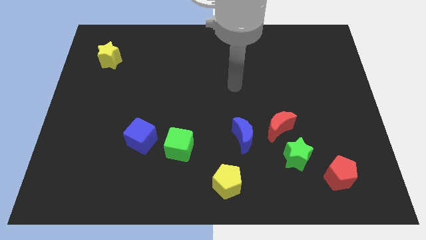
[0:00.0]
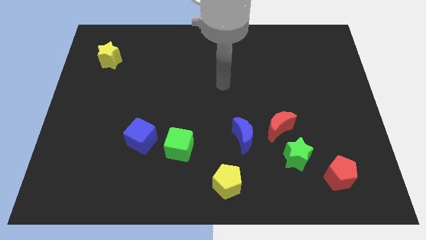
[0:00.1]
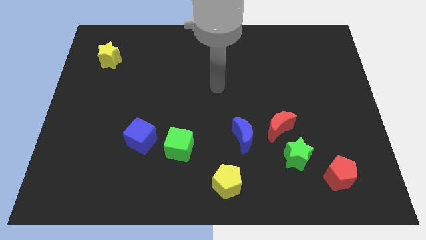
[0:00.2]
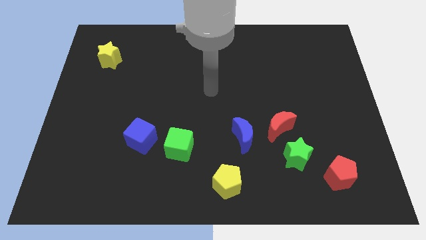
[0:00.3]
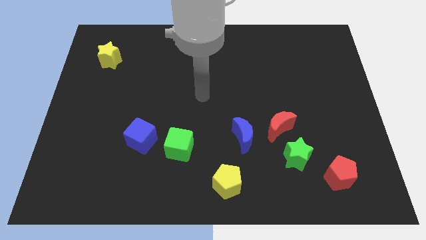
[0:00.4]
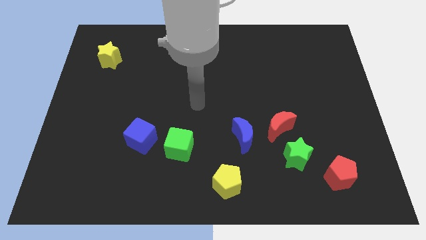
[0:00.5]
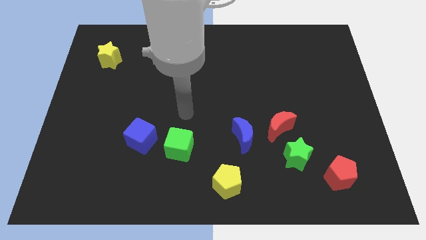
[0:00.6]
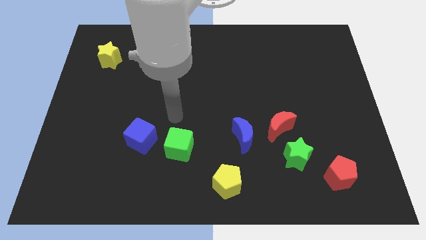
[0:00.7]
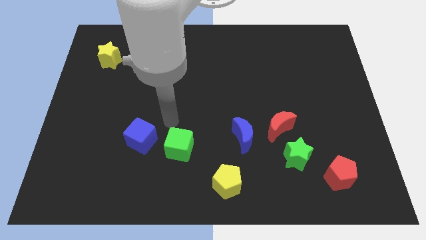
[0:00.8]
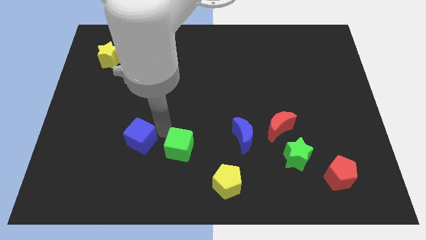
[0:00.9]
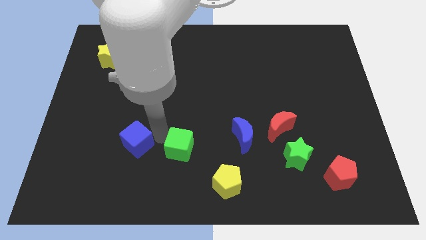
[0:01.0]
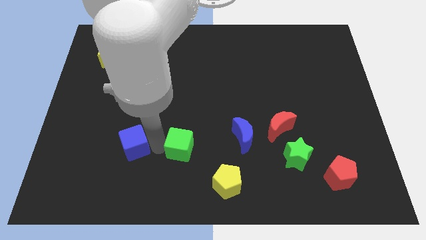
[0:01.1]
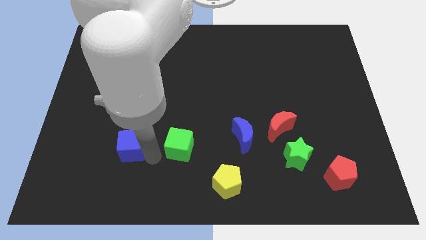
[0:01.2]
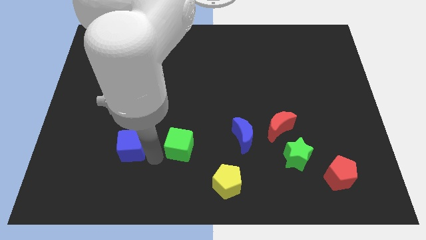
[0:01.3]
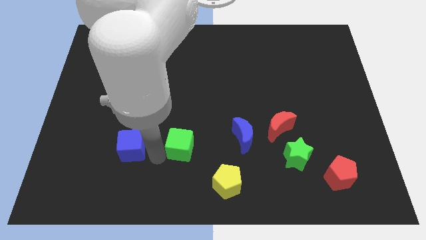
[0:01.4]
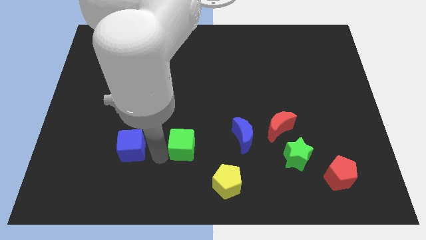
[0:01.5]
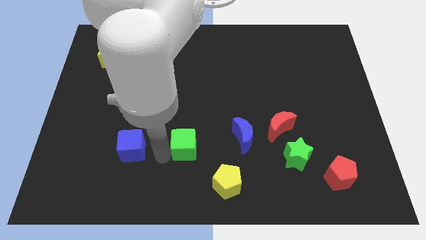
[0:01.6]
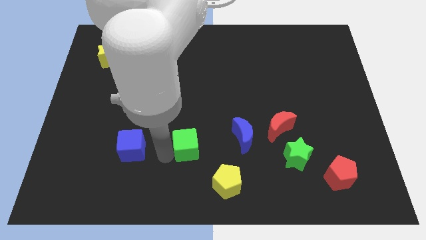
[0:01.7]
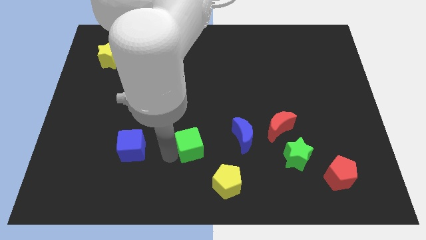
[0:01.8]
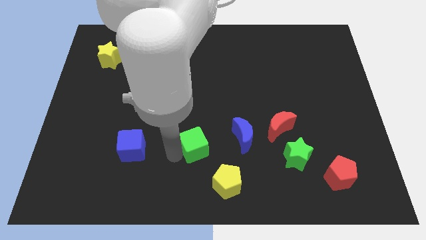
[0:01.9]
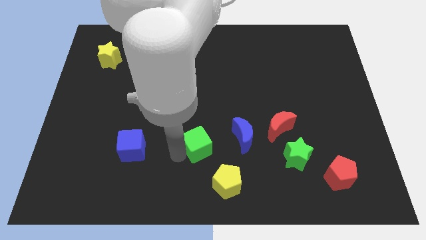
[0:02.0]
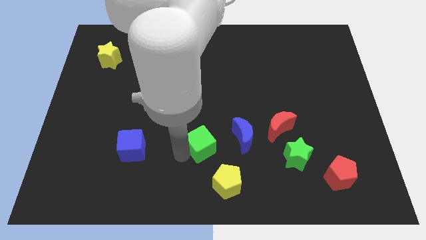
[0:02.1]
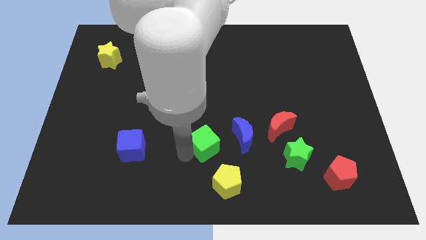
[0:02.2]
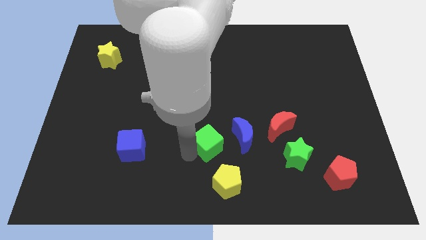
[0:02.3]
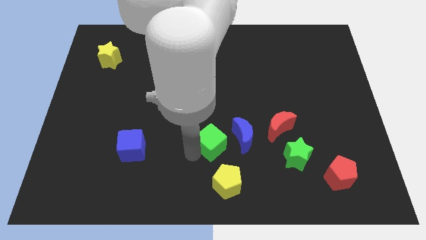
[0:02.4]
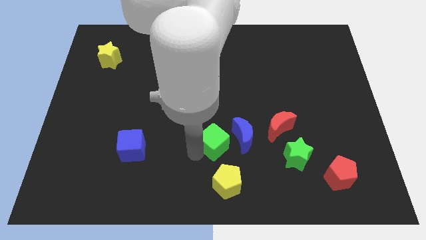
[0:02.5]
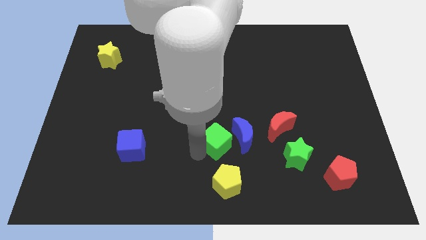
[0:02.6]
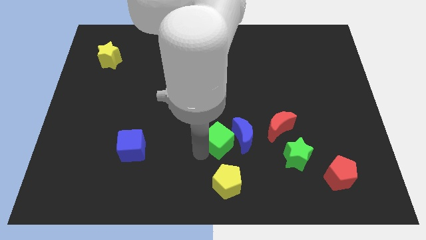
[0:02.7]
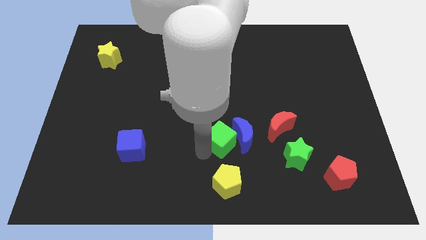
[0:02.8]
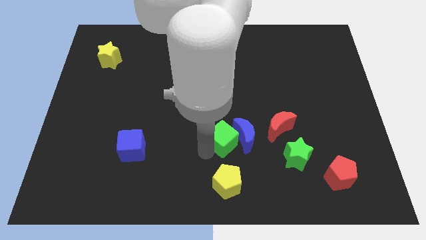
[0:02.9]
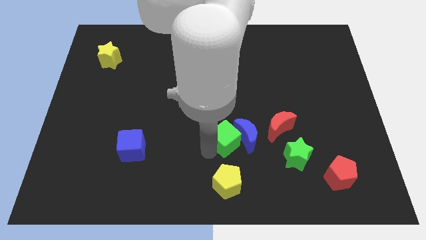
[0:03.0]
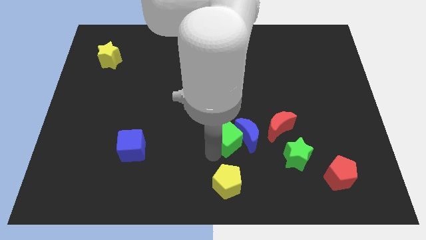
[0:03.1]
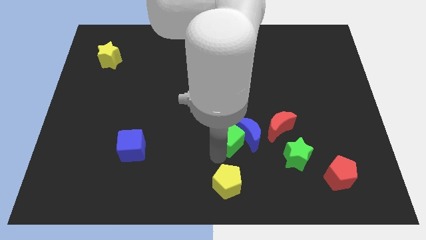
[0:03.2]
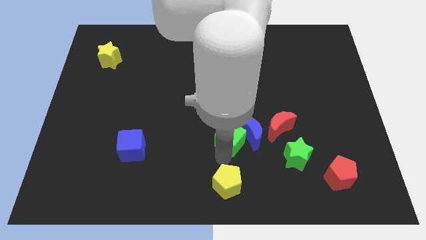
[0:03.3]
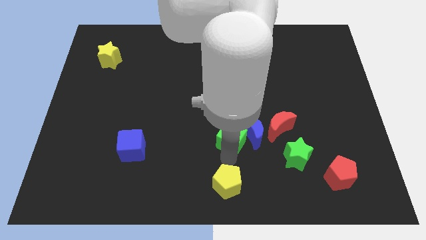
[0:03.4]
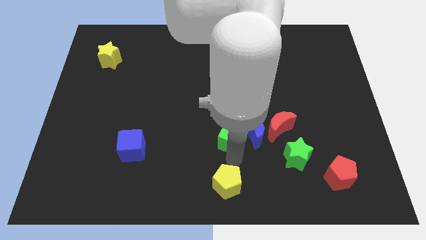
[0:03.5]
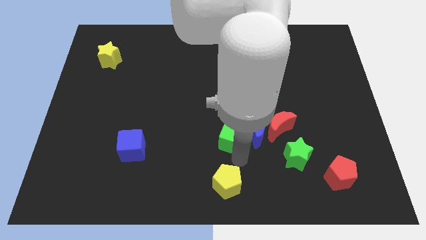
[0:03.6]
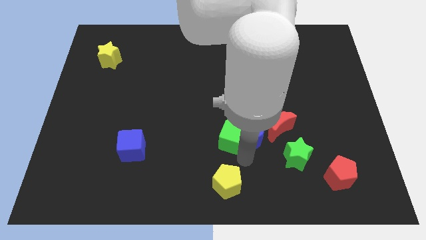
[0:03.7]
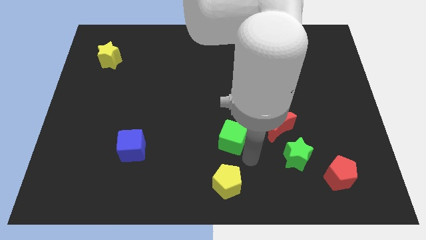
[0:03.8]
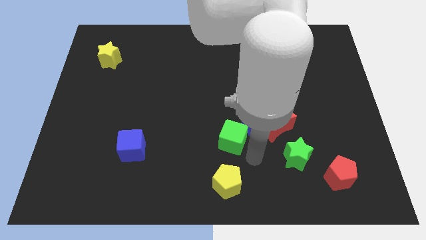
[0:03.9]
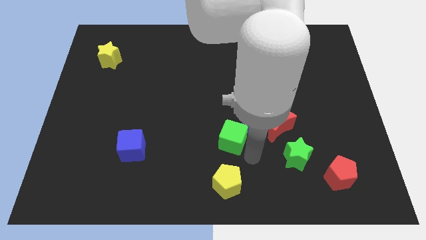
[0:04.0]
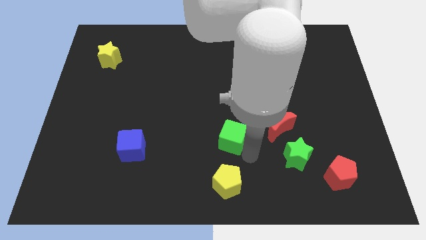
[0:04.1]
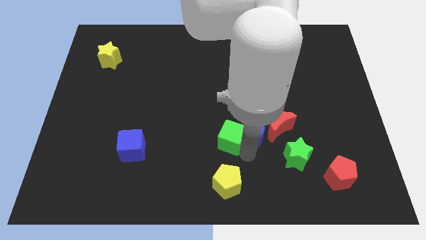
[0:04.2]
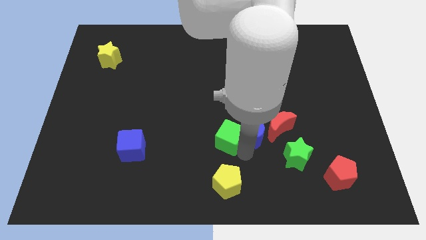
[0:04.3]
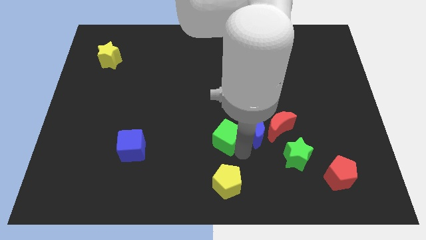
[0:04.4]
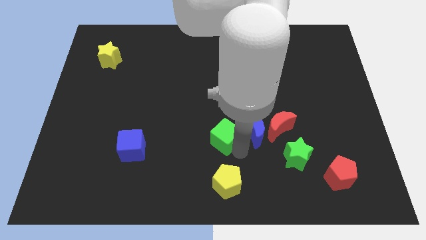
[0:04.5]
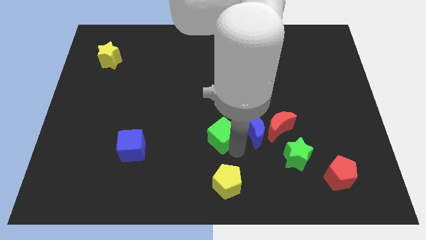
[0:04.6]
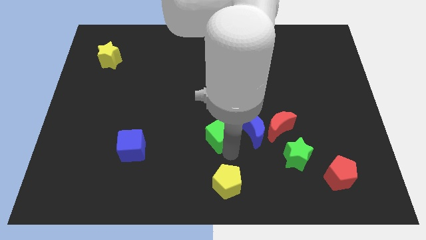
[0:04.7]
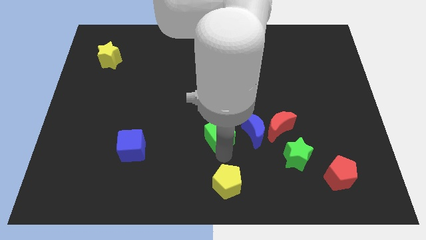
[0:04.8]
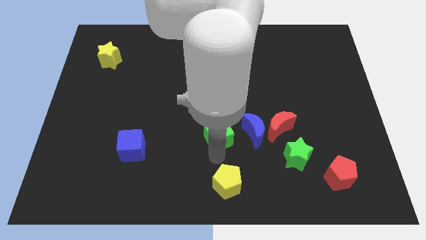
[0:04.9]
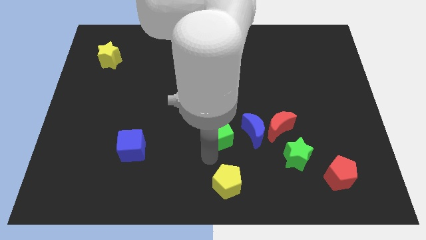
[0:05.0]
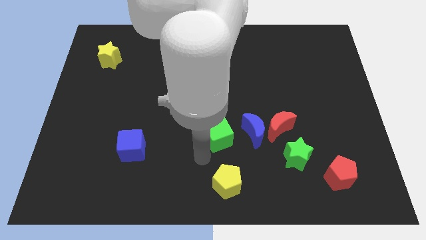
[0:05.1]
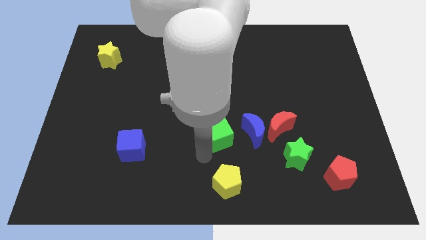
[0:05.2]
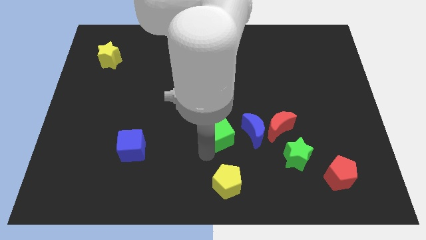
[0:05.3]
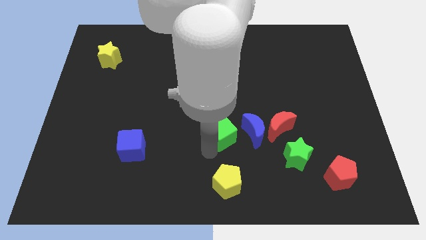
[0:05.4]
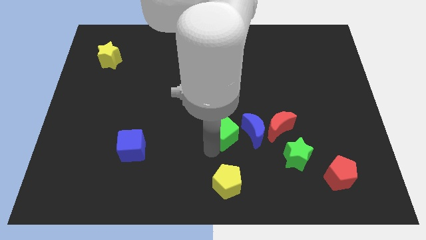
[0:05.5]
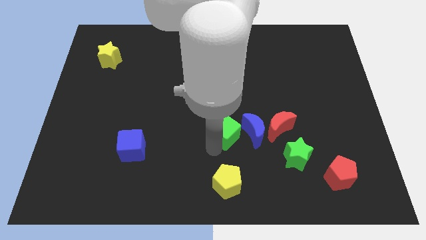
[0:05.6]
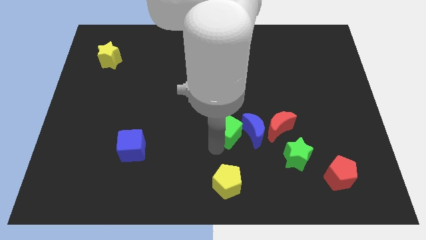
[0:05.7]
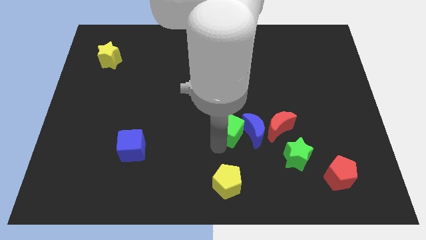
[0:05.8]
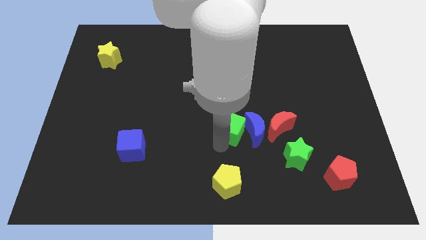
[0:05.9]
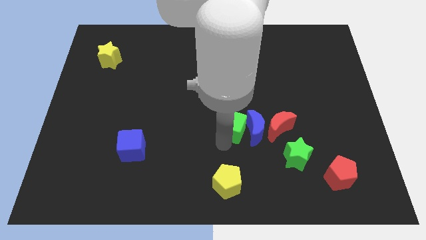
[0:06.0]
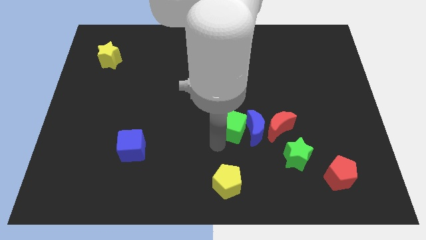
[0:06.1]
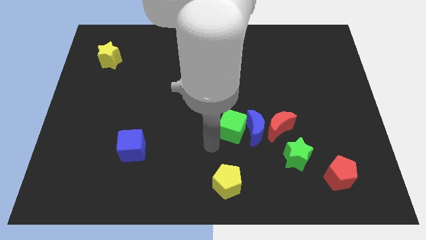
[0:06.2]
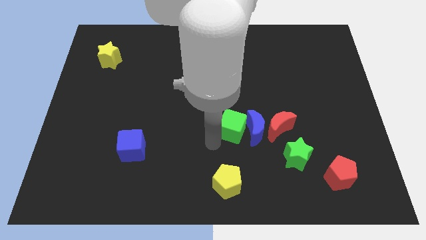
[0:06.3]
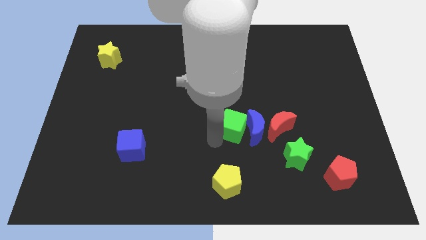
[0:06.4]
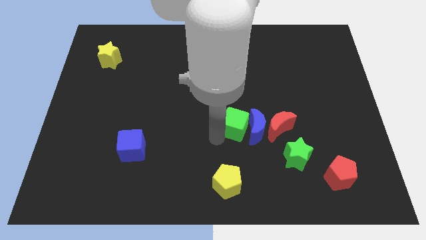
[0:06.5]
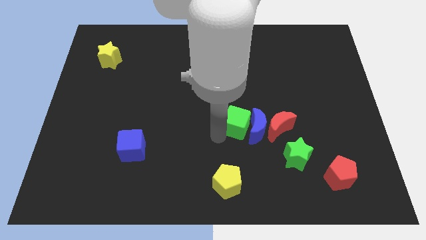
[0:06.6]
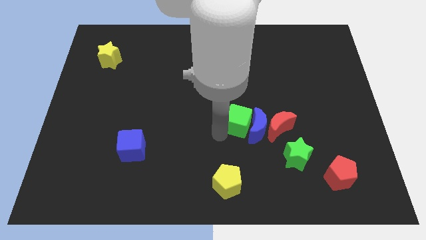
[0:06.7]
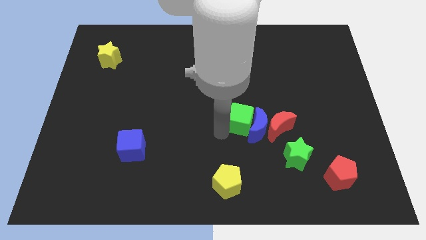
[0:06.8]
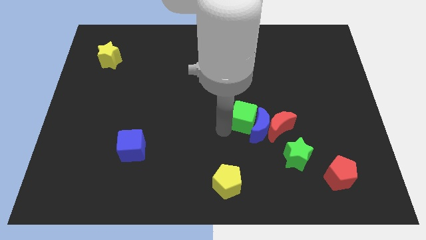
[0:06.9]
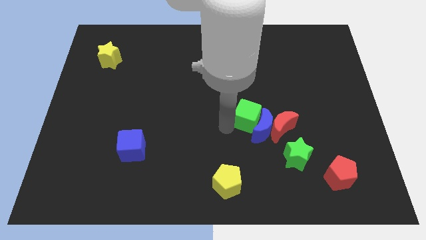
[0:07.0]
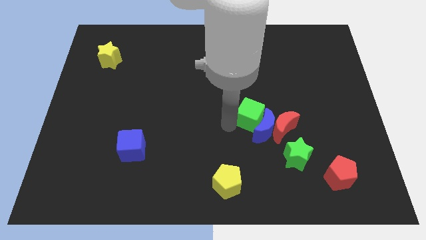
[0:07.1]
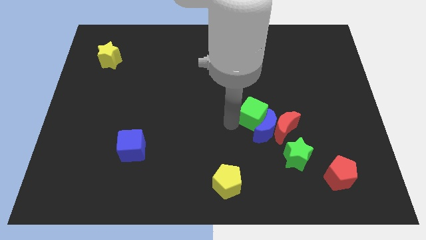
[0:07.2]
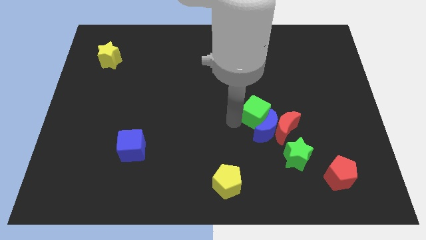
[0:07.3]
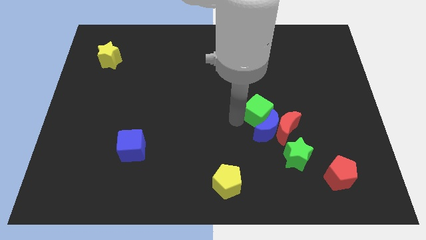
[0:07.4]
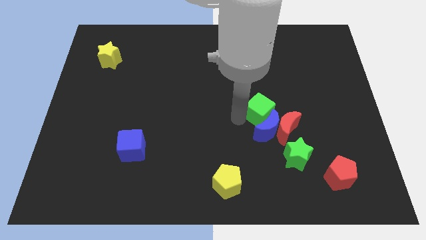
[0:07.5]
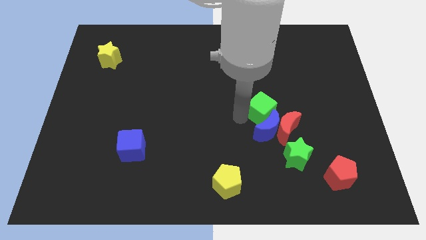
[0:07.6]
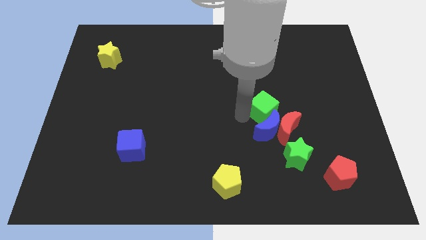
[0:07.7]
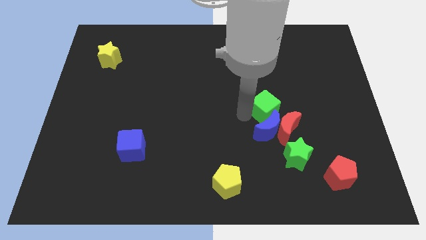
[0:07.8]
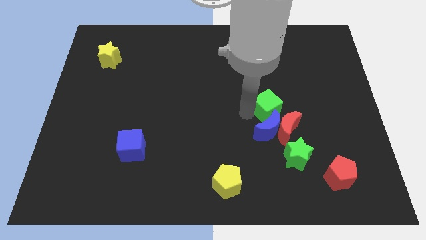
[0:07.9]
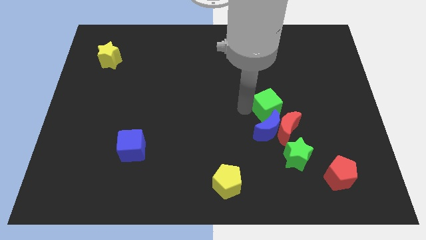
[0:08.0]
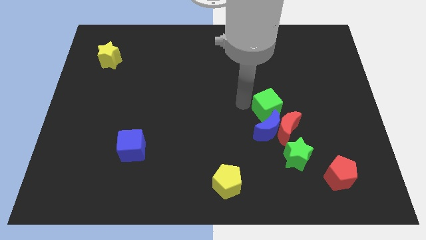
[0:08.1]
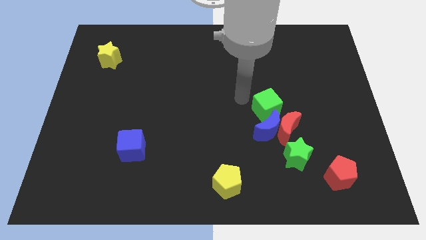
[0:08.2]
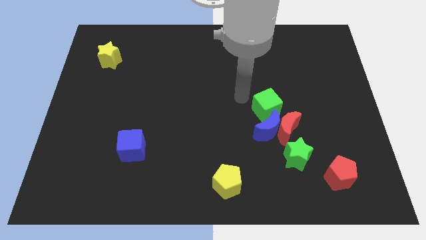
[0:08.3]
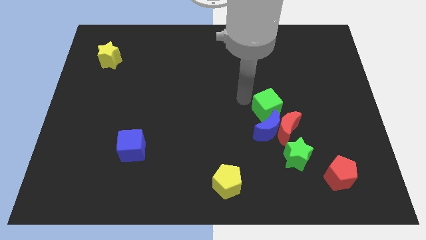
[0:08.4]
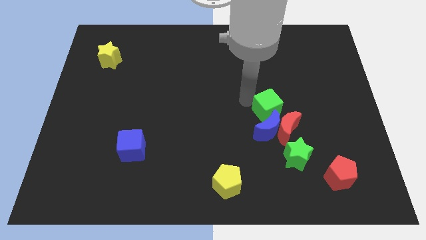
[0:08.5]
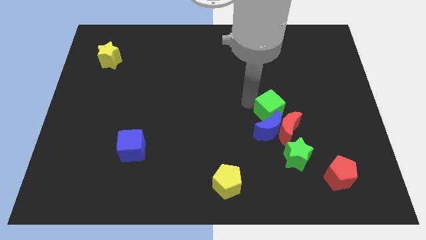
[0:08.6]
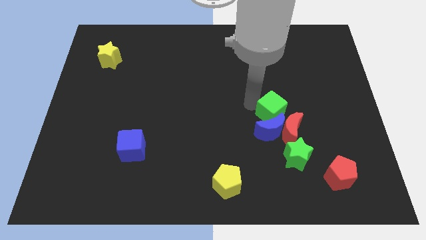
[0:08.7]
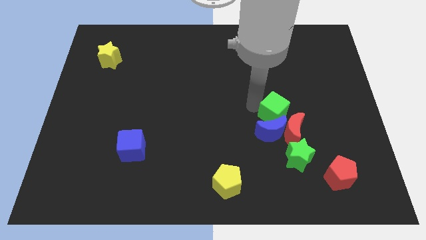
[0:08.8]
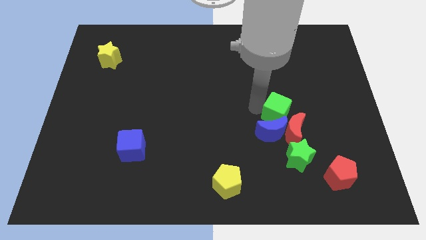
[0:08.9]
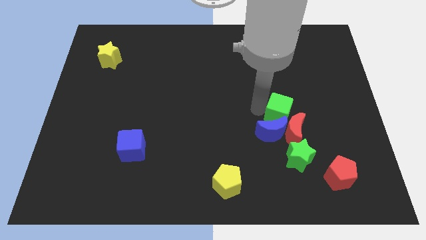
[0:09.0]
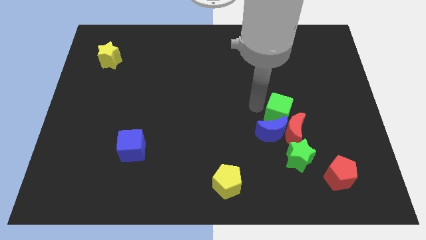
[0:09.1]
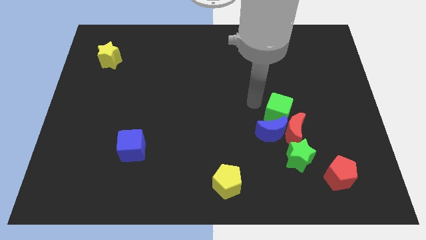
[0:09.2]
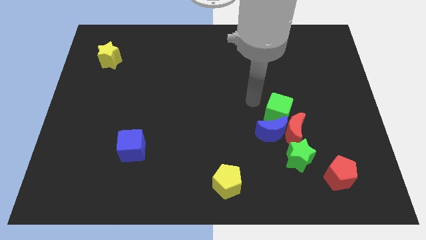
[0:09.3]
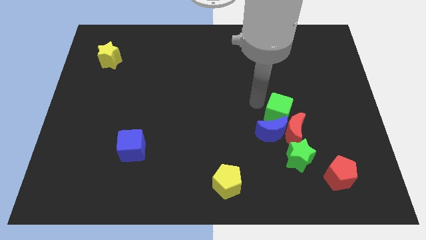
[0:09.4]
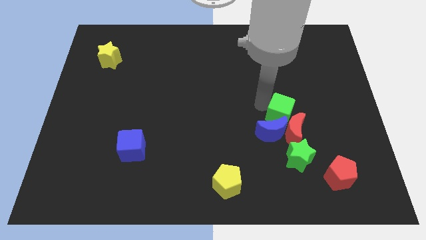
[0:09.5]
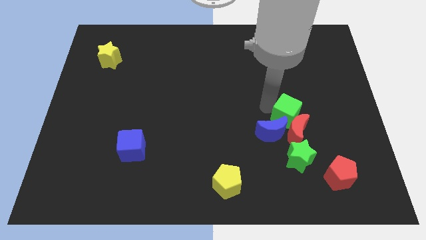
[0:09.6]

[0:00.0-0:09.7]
move the green cube right
